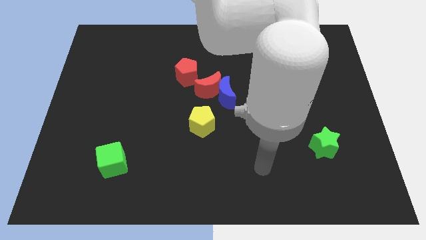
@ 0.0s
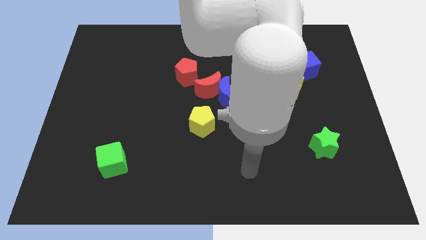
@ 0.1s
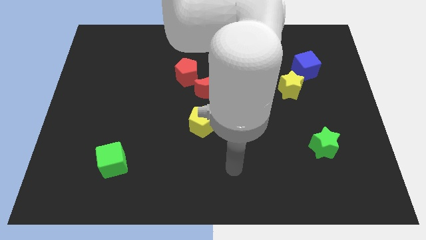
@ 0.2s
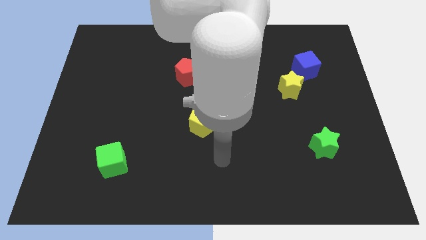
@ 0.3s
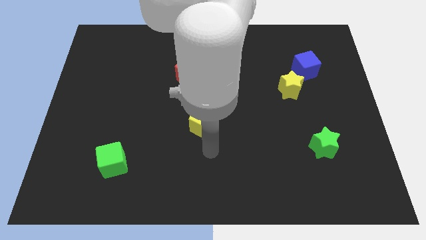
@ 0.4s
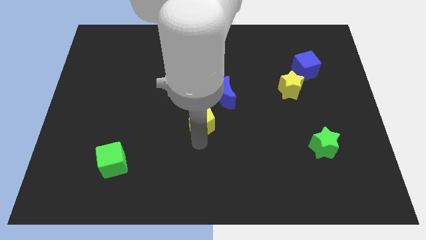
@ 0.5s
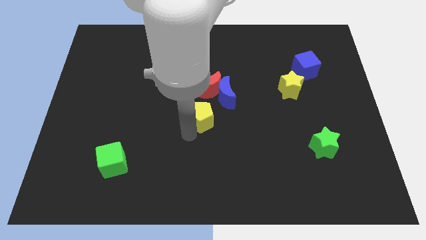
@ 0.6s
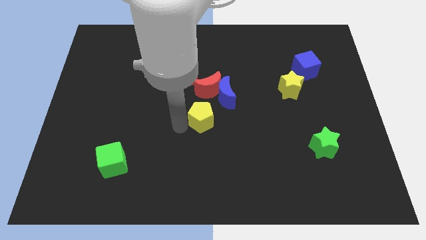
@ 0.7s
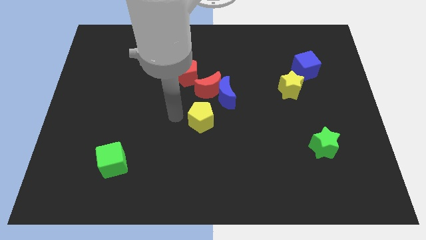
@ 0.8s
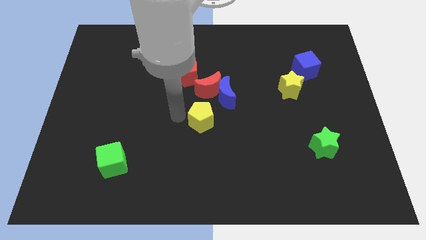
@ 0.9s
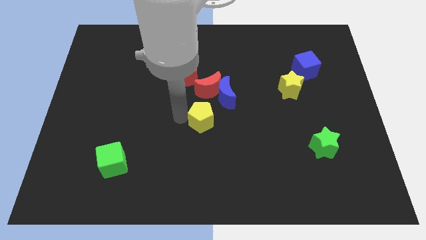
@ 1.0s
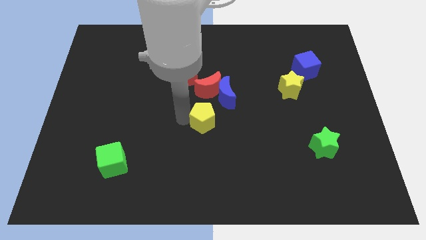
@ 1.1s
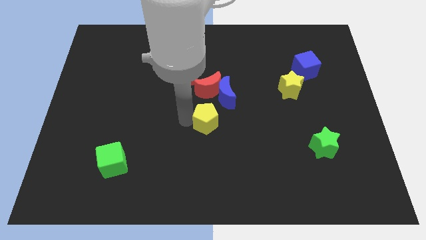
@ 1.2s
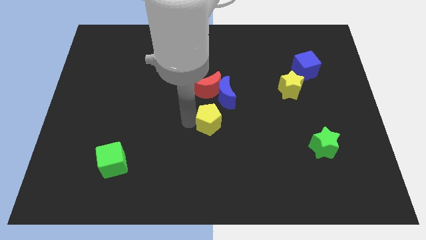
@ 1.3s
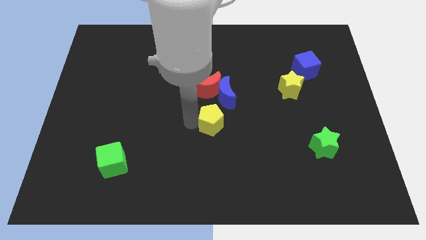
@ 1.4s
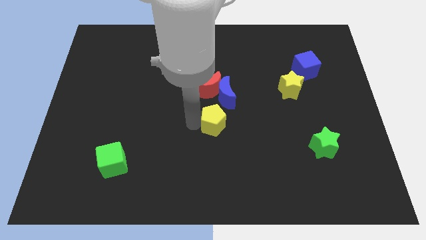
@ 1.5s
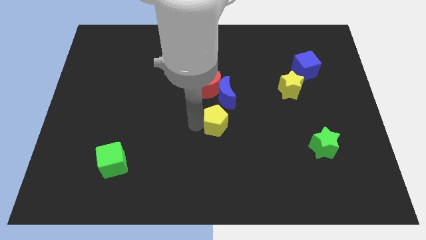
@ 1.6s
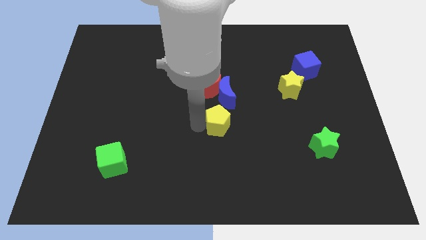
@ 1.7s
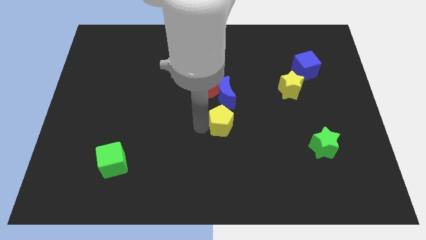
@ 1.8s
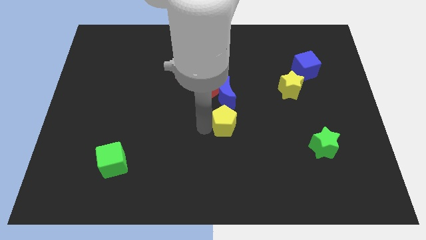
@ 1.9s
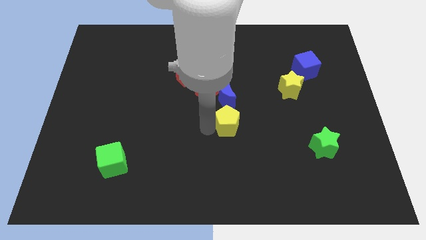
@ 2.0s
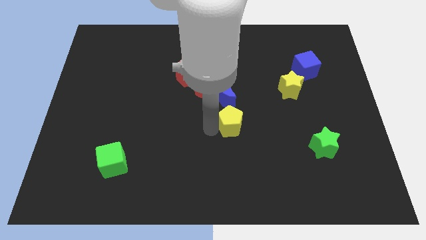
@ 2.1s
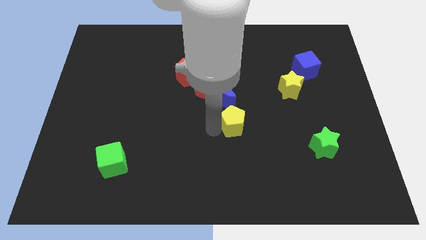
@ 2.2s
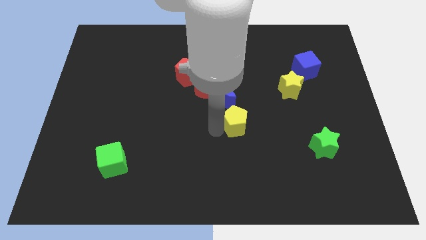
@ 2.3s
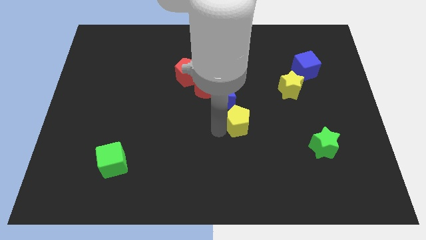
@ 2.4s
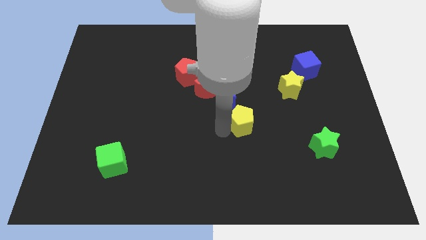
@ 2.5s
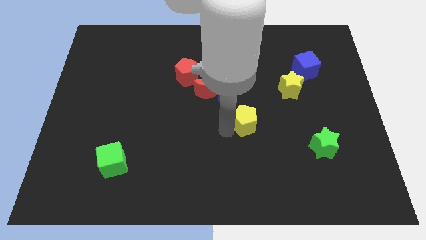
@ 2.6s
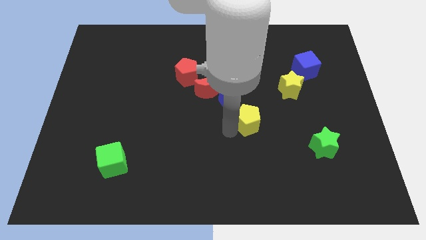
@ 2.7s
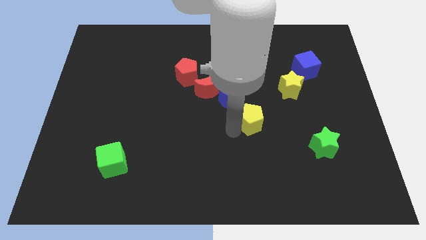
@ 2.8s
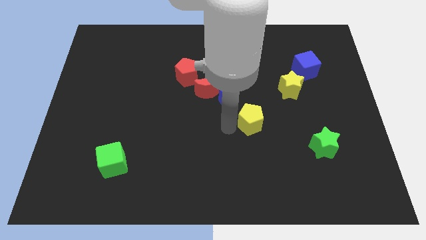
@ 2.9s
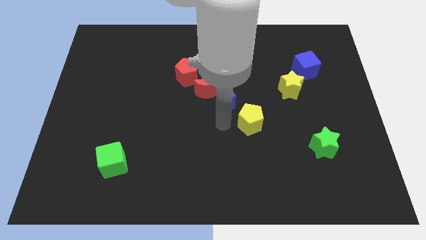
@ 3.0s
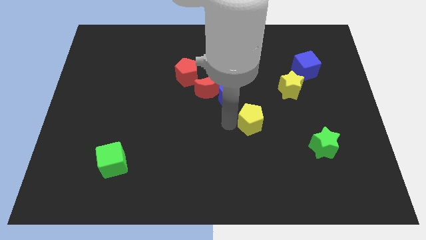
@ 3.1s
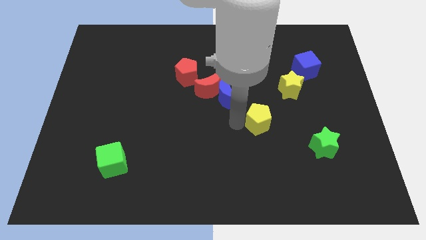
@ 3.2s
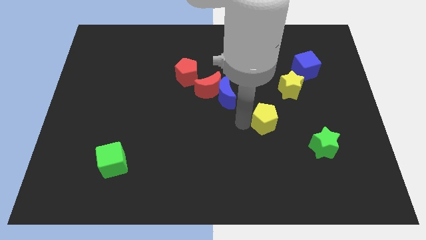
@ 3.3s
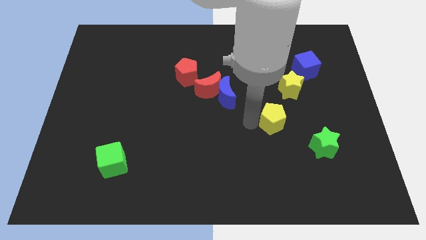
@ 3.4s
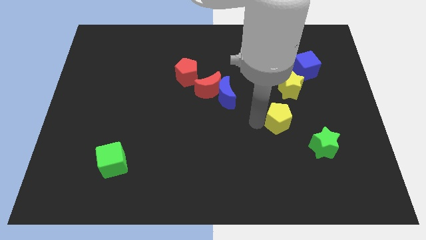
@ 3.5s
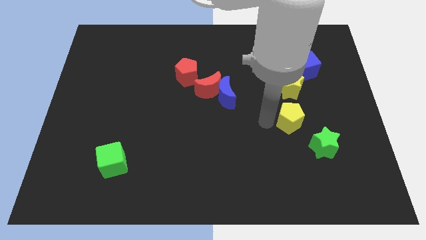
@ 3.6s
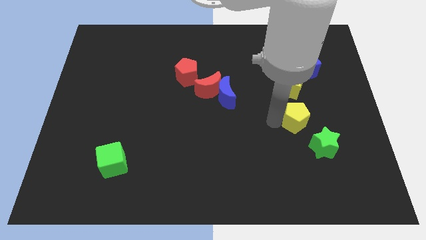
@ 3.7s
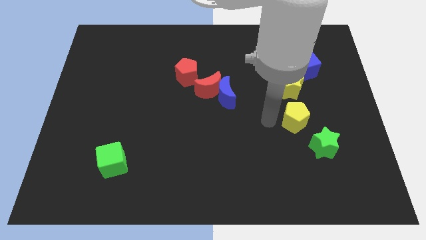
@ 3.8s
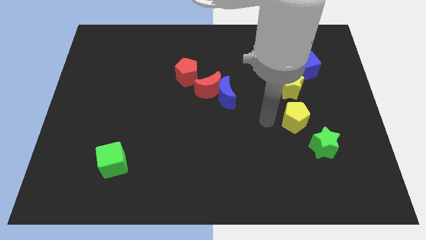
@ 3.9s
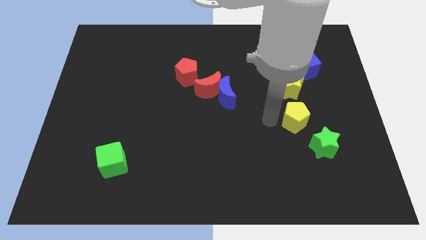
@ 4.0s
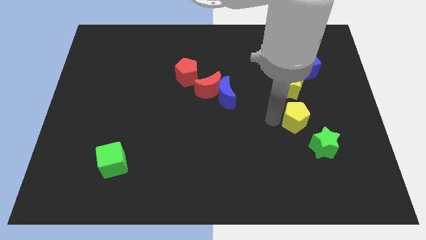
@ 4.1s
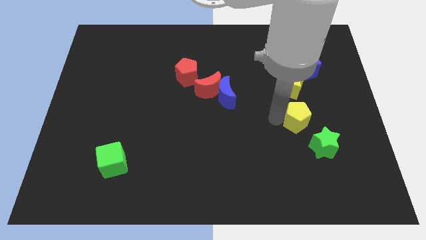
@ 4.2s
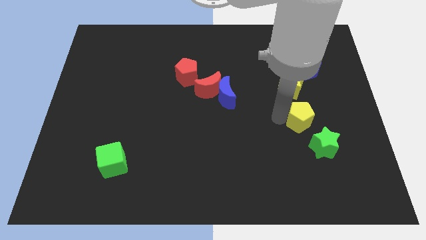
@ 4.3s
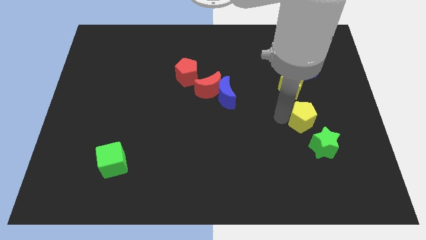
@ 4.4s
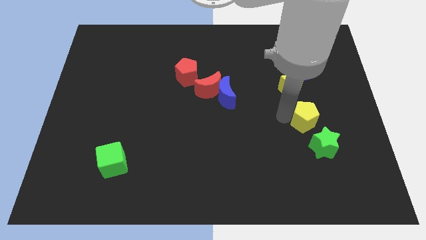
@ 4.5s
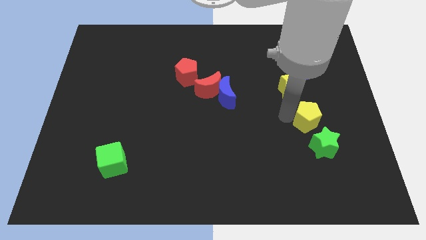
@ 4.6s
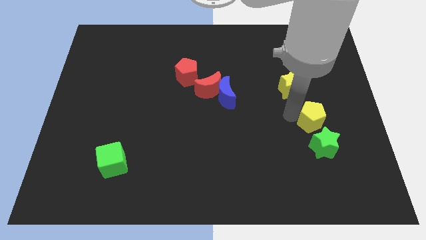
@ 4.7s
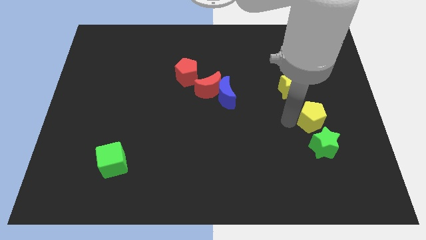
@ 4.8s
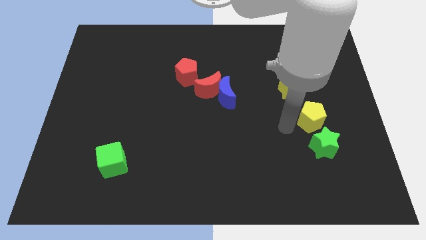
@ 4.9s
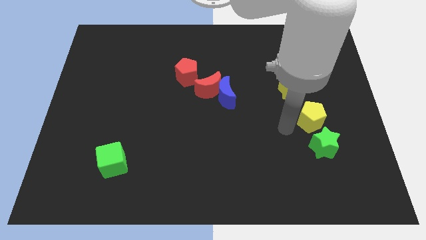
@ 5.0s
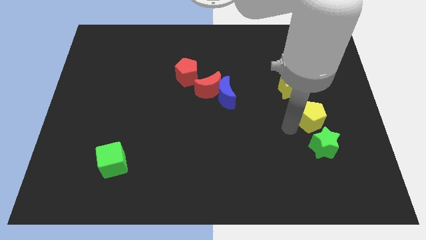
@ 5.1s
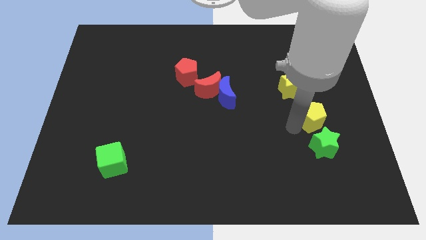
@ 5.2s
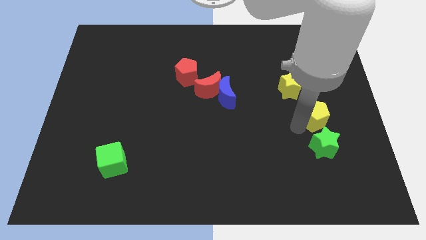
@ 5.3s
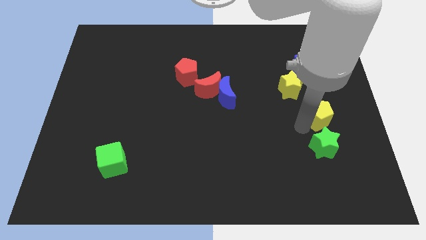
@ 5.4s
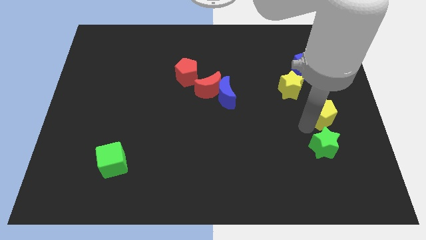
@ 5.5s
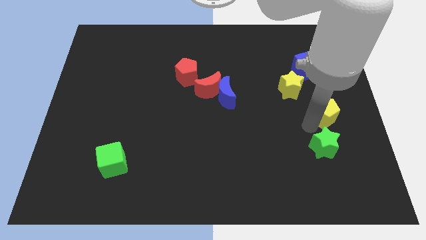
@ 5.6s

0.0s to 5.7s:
put the yellow pentagon to the center right

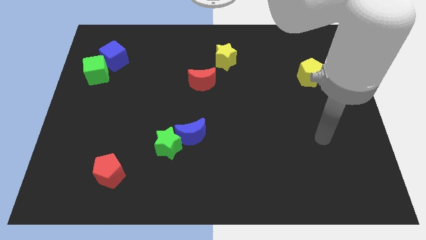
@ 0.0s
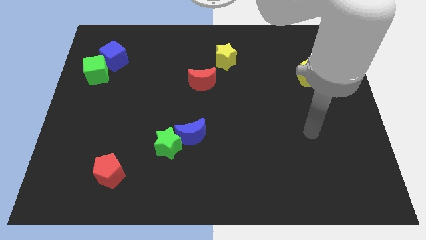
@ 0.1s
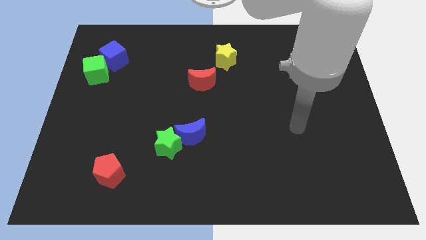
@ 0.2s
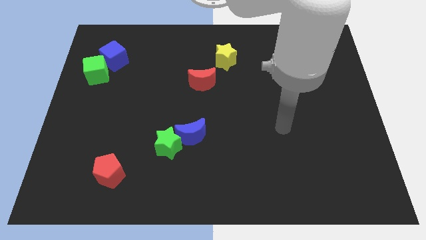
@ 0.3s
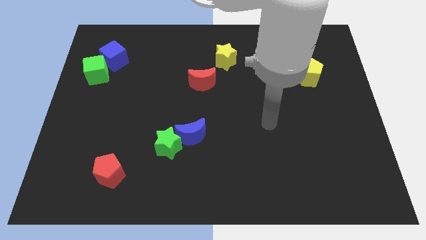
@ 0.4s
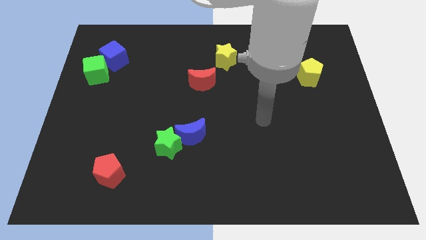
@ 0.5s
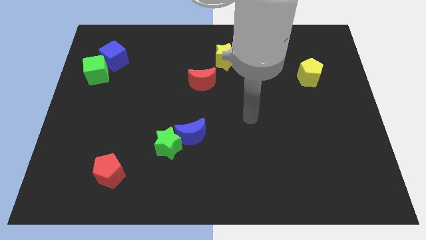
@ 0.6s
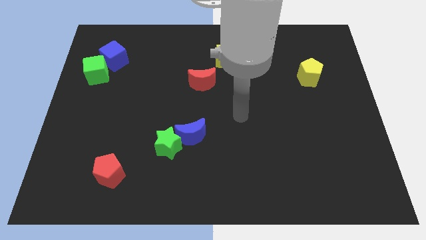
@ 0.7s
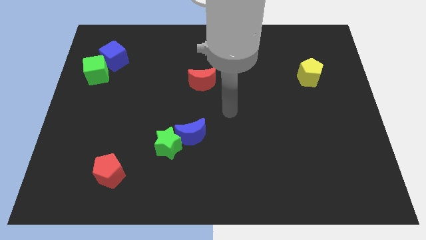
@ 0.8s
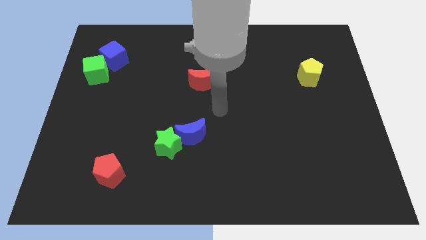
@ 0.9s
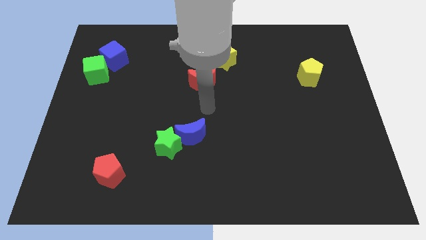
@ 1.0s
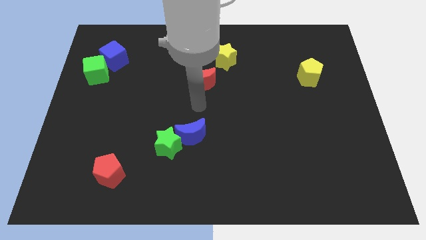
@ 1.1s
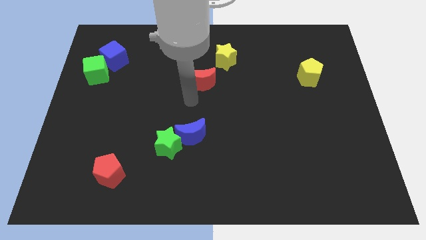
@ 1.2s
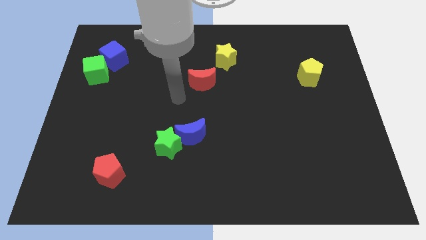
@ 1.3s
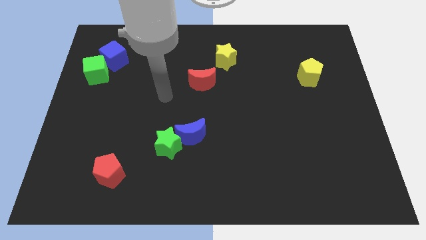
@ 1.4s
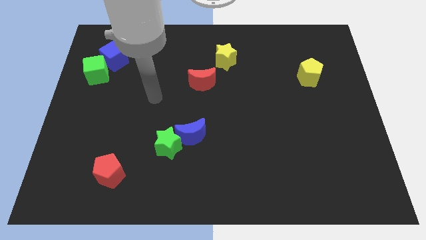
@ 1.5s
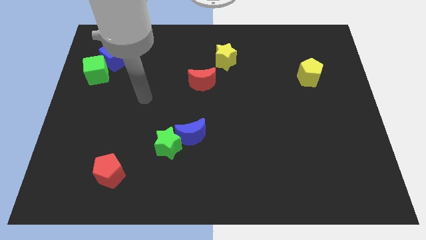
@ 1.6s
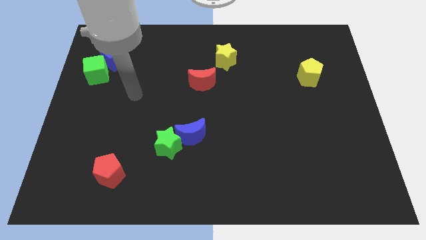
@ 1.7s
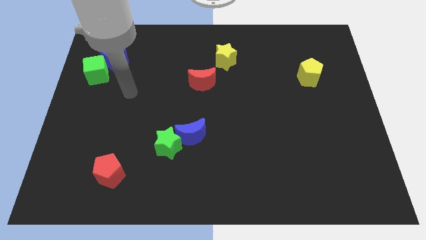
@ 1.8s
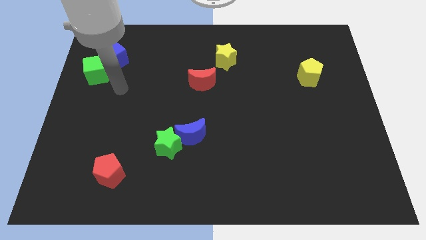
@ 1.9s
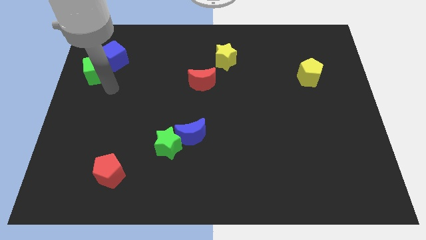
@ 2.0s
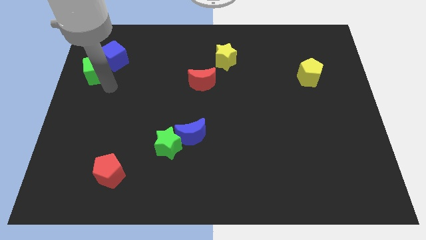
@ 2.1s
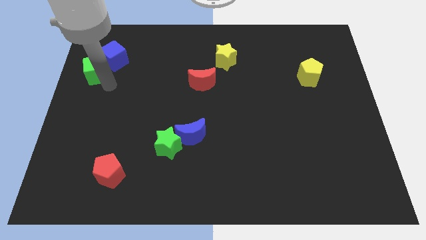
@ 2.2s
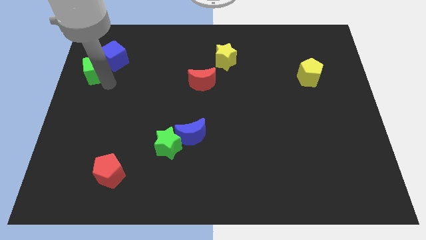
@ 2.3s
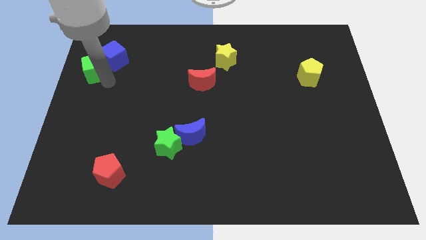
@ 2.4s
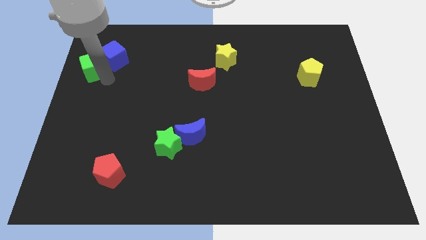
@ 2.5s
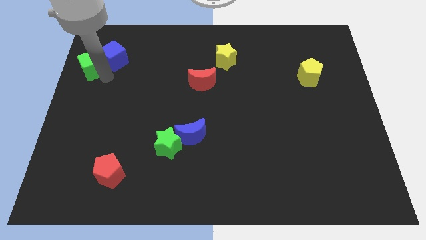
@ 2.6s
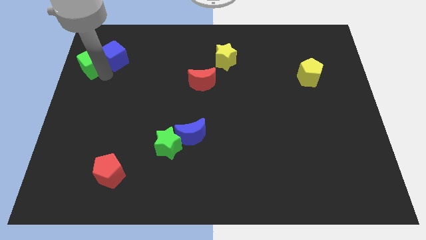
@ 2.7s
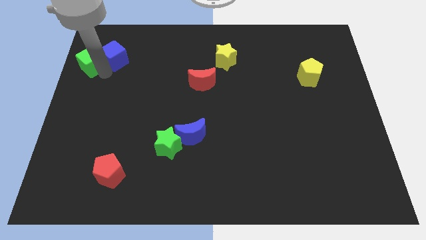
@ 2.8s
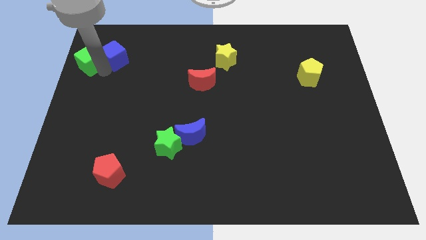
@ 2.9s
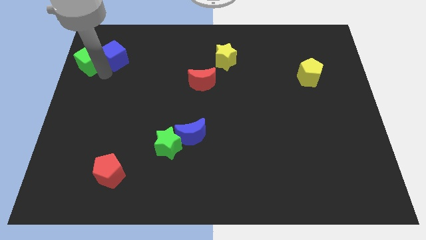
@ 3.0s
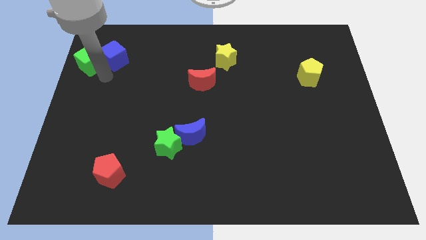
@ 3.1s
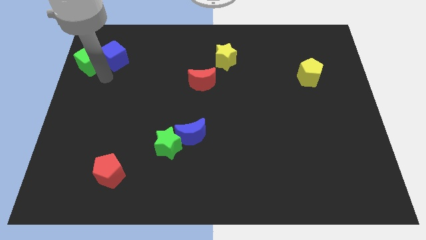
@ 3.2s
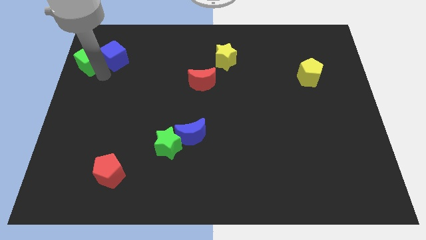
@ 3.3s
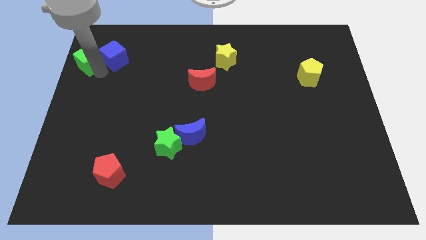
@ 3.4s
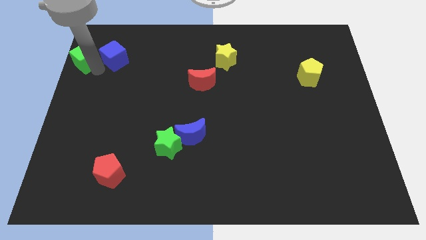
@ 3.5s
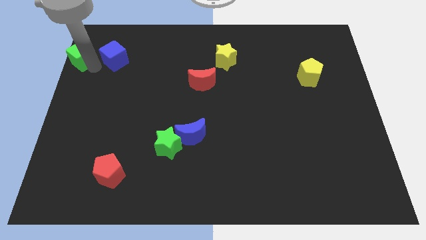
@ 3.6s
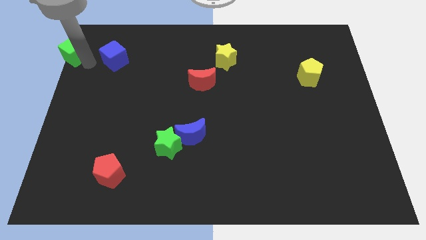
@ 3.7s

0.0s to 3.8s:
slide the green cube to the top left of the board
